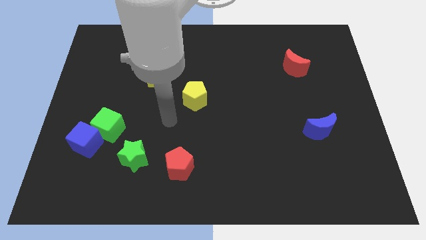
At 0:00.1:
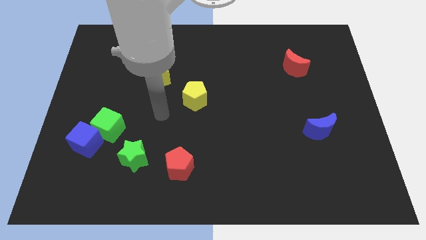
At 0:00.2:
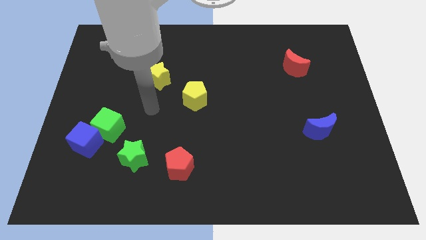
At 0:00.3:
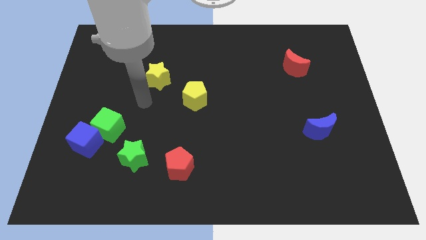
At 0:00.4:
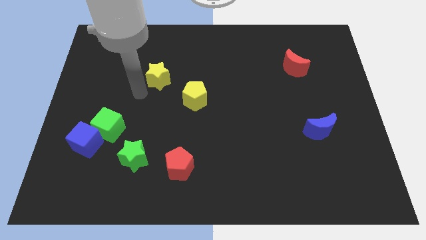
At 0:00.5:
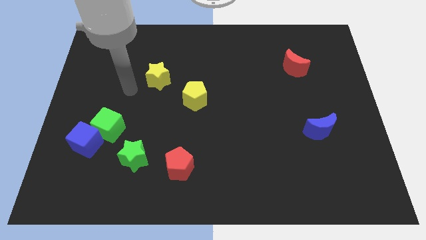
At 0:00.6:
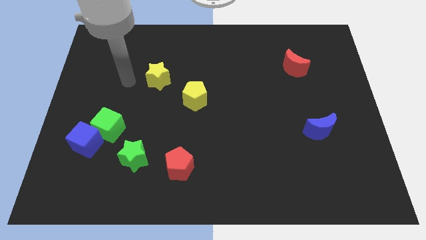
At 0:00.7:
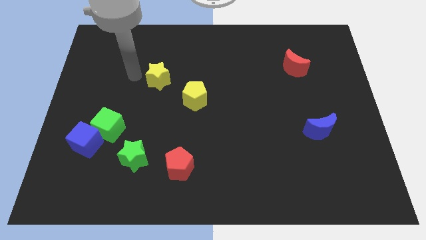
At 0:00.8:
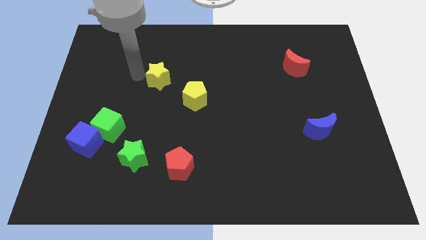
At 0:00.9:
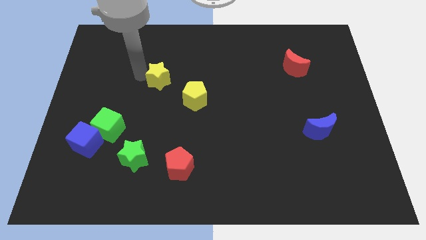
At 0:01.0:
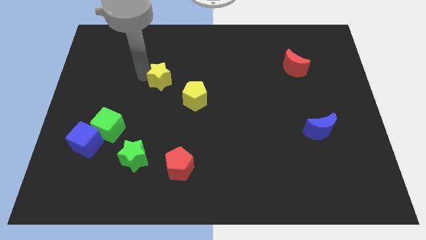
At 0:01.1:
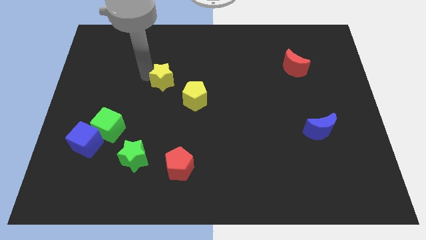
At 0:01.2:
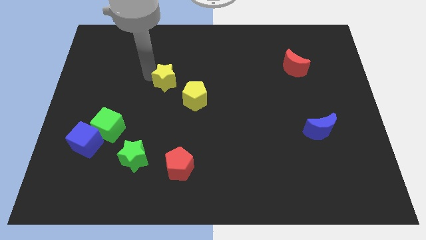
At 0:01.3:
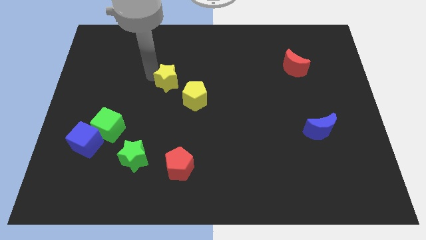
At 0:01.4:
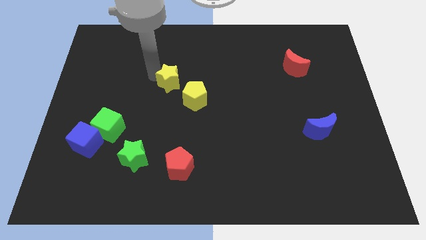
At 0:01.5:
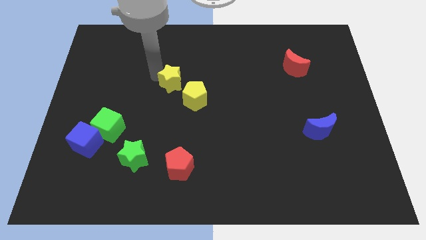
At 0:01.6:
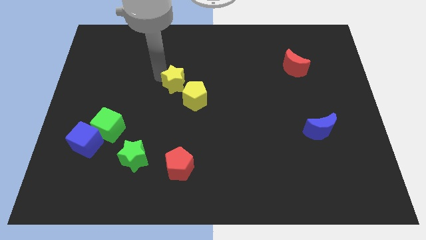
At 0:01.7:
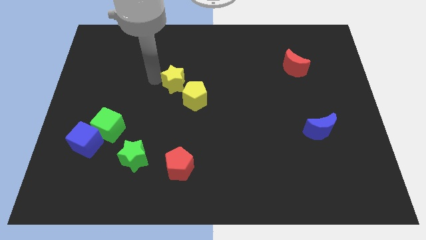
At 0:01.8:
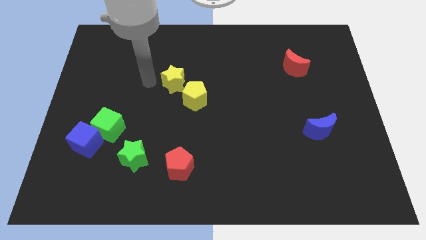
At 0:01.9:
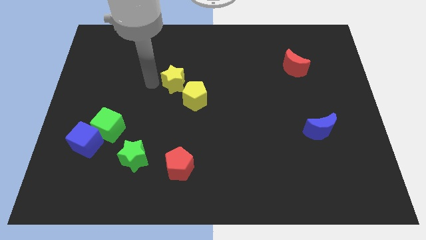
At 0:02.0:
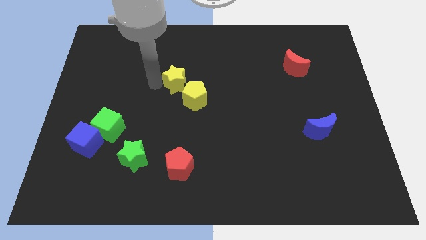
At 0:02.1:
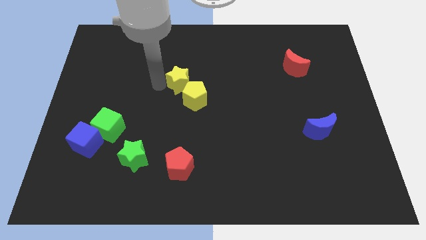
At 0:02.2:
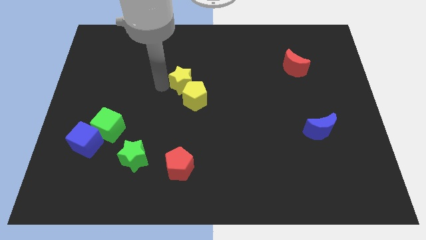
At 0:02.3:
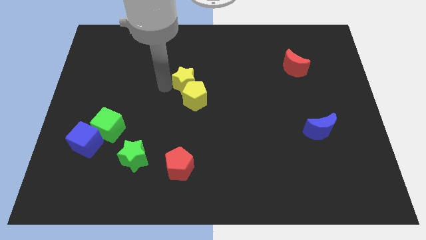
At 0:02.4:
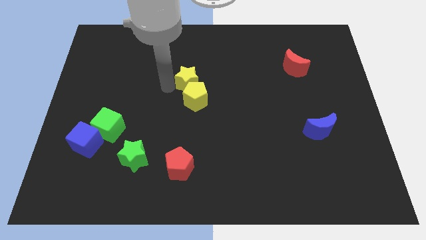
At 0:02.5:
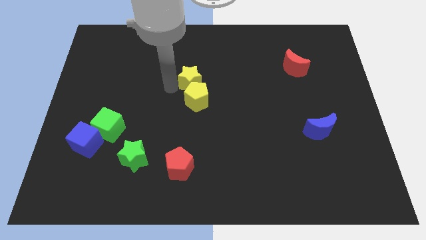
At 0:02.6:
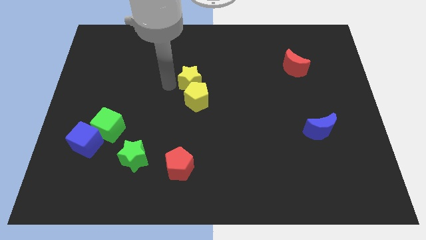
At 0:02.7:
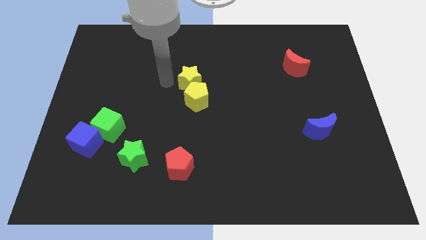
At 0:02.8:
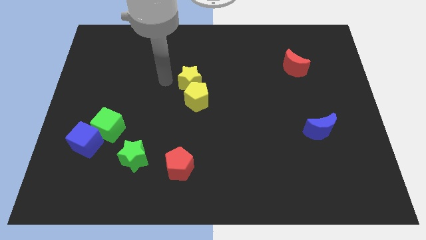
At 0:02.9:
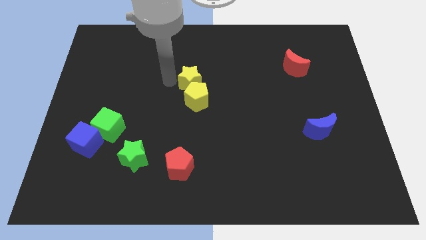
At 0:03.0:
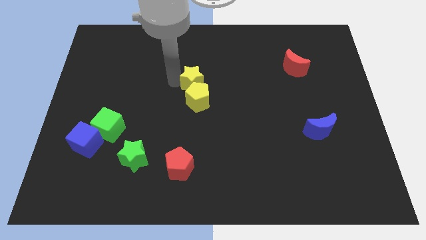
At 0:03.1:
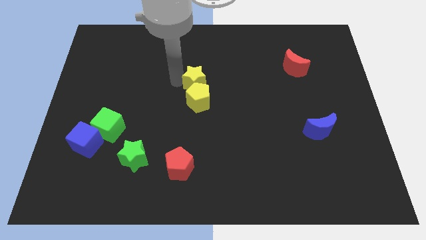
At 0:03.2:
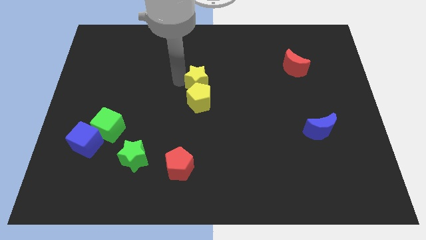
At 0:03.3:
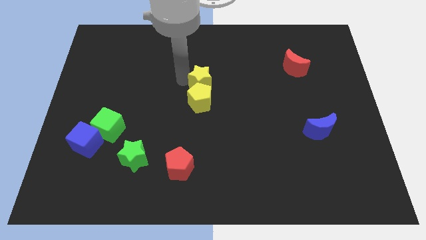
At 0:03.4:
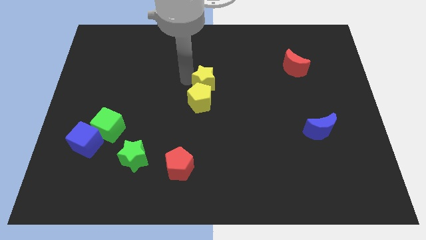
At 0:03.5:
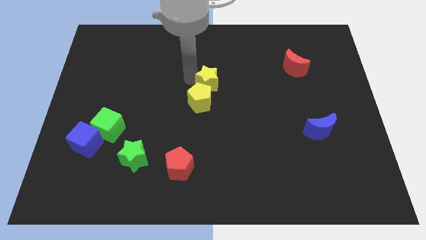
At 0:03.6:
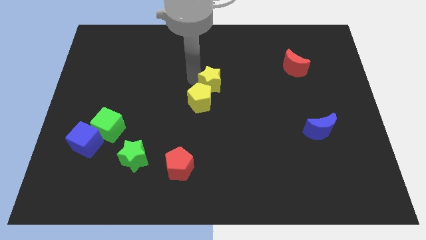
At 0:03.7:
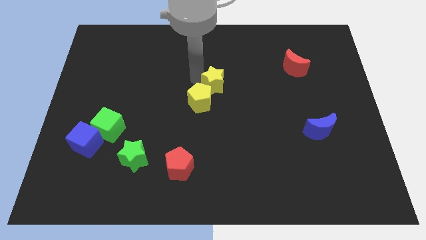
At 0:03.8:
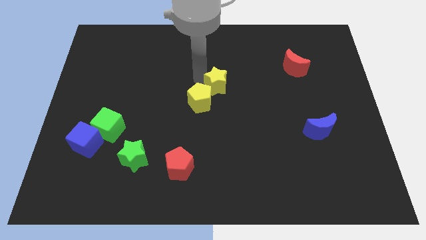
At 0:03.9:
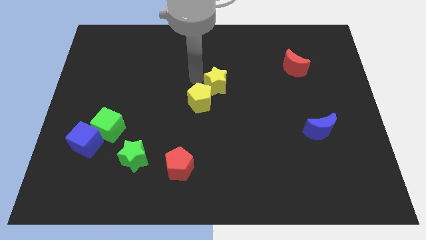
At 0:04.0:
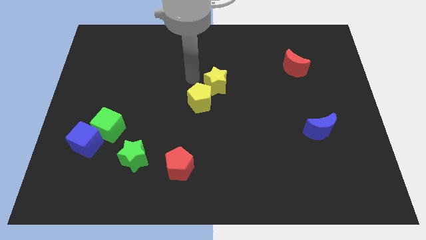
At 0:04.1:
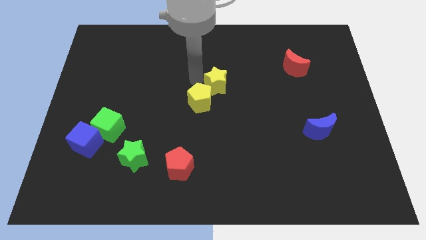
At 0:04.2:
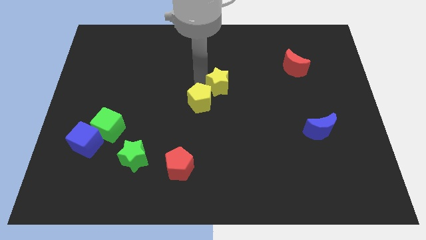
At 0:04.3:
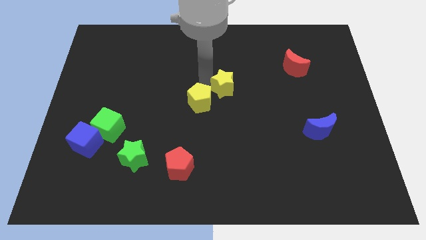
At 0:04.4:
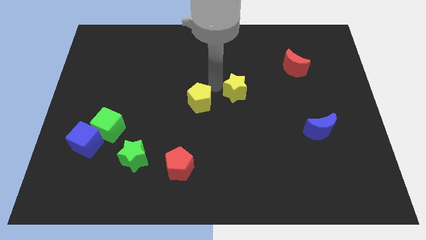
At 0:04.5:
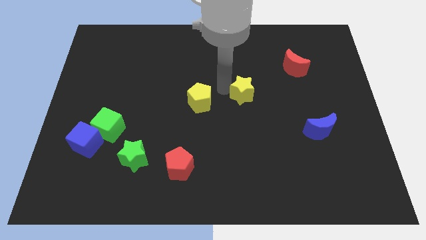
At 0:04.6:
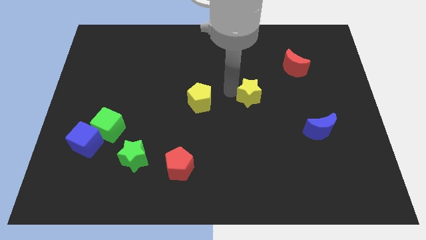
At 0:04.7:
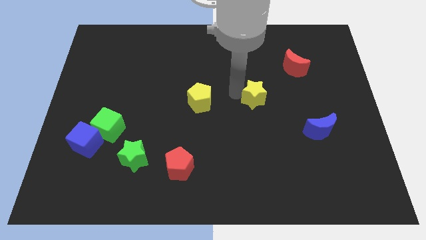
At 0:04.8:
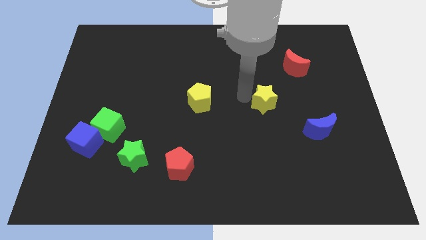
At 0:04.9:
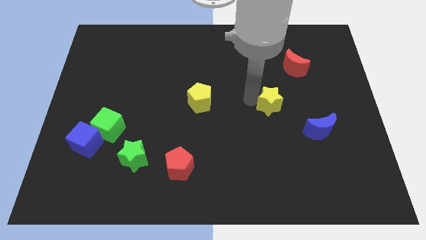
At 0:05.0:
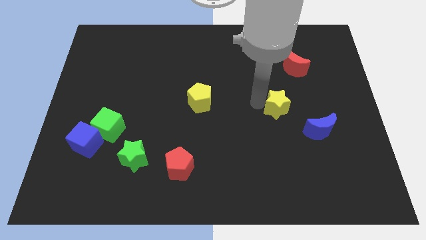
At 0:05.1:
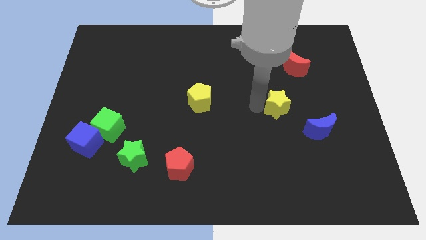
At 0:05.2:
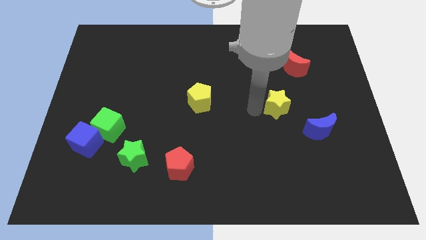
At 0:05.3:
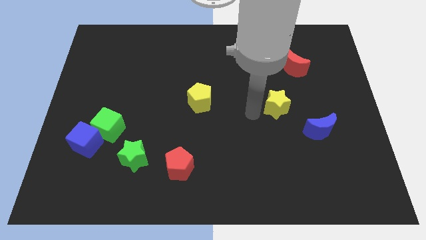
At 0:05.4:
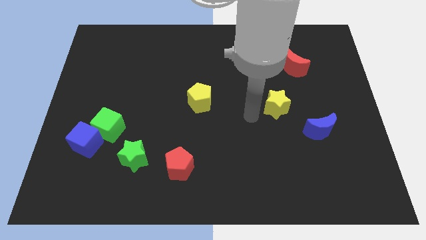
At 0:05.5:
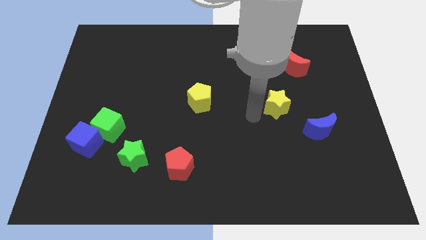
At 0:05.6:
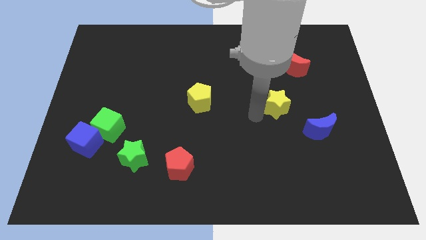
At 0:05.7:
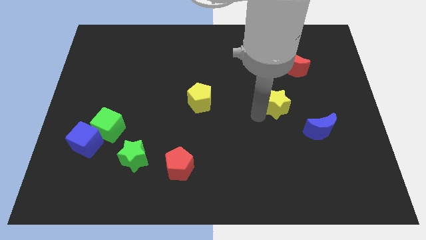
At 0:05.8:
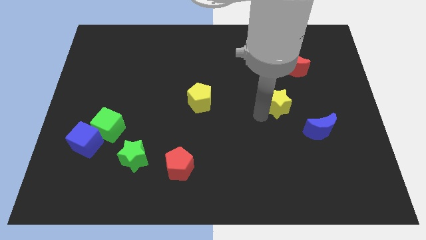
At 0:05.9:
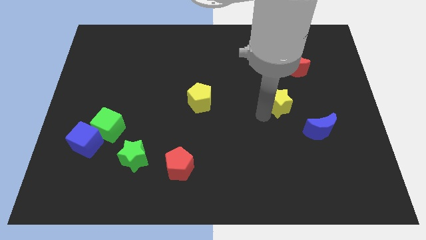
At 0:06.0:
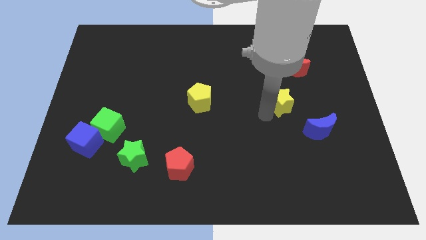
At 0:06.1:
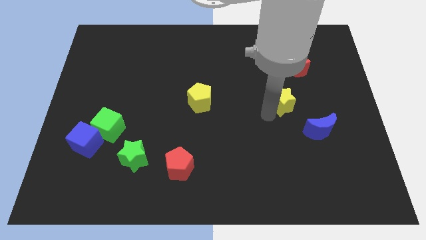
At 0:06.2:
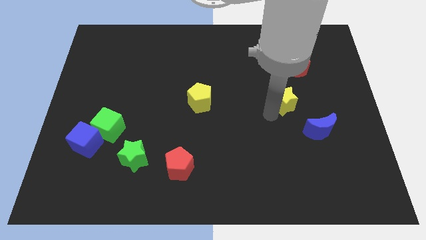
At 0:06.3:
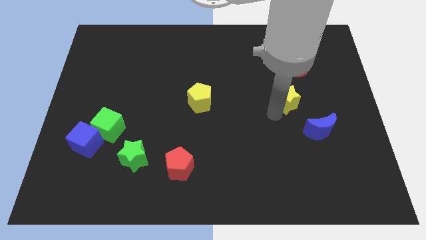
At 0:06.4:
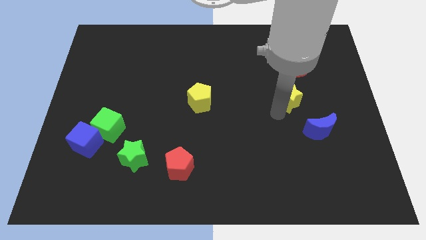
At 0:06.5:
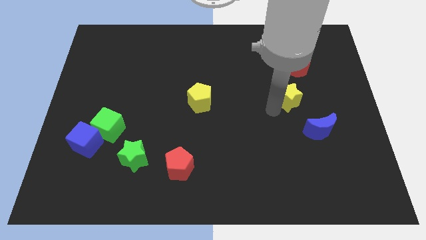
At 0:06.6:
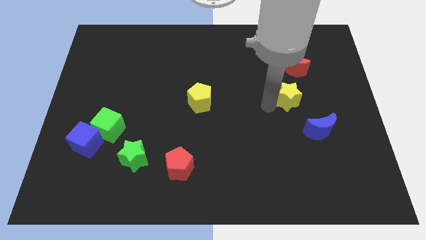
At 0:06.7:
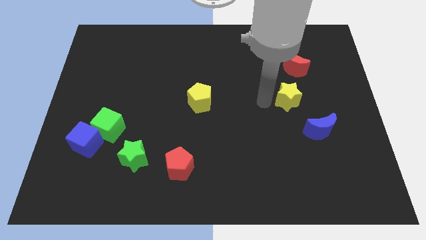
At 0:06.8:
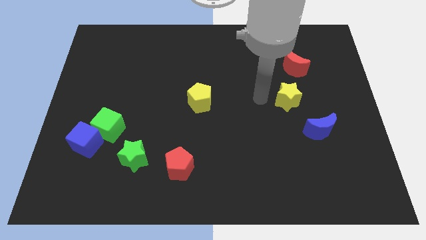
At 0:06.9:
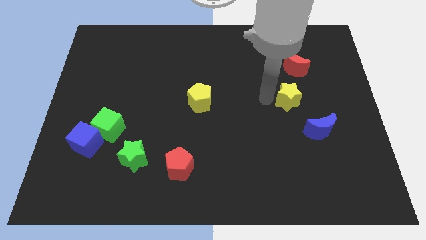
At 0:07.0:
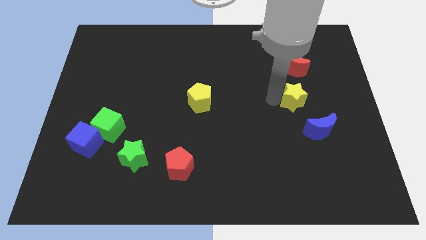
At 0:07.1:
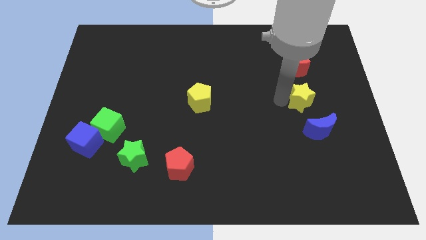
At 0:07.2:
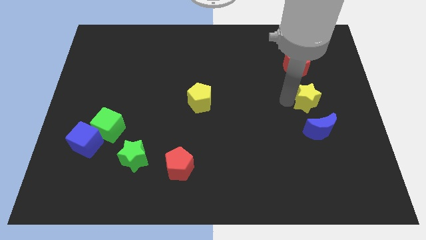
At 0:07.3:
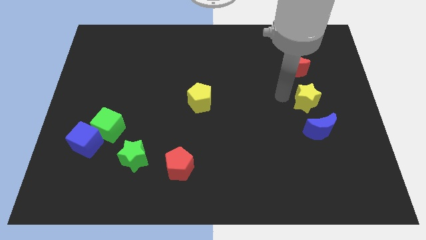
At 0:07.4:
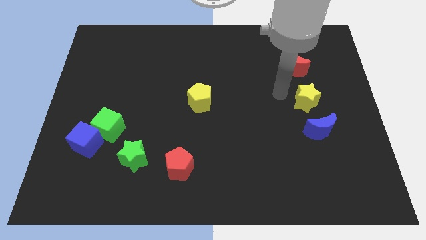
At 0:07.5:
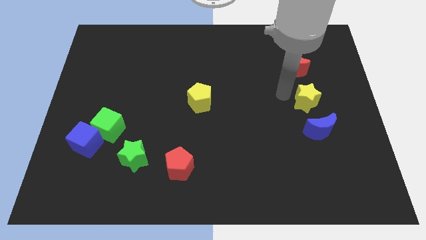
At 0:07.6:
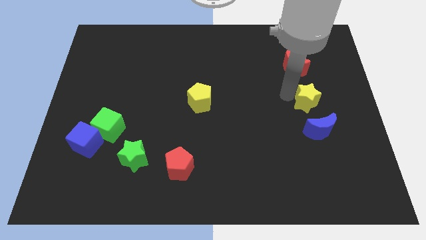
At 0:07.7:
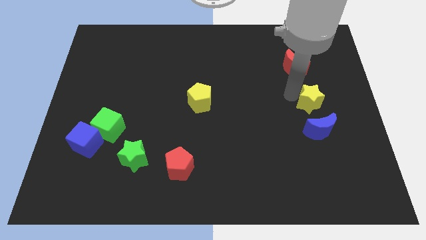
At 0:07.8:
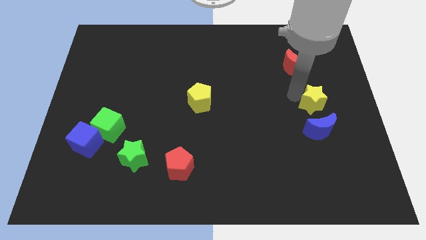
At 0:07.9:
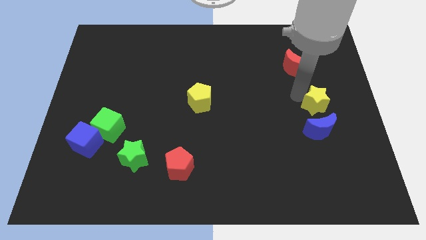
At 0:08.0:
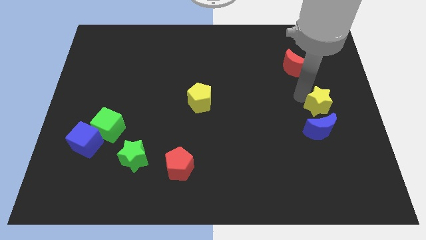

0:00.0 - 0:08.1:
push the yellow star diagonally up and to the right of the blue moon
